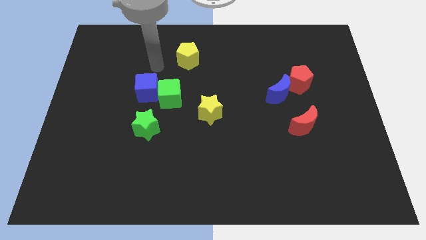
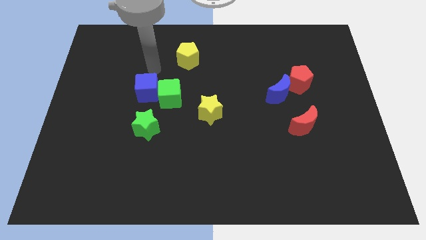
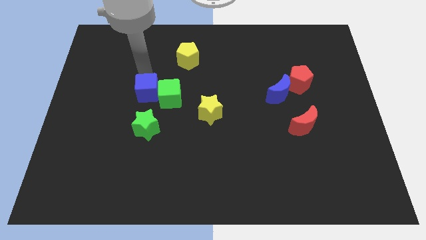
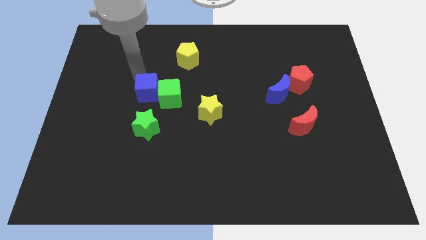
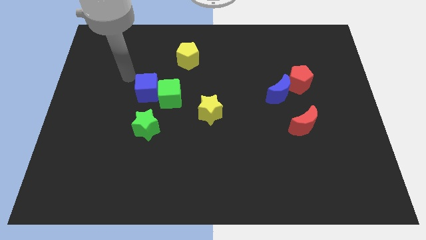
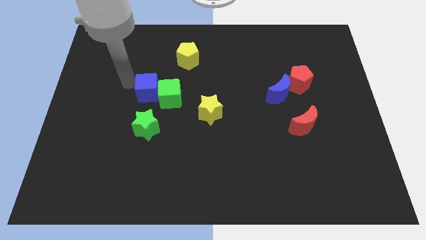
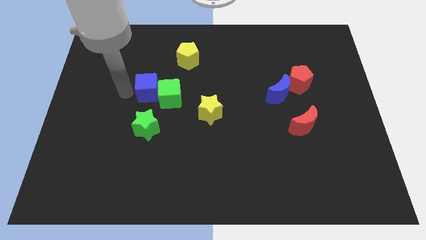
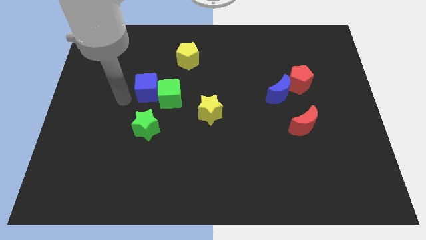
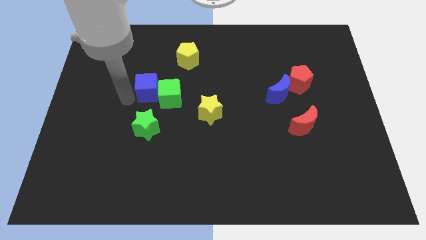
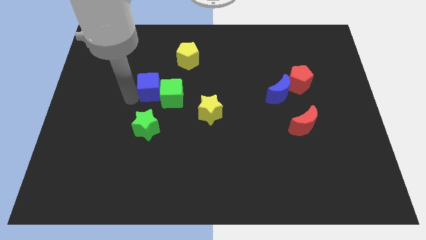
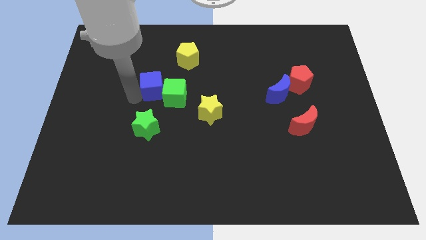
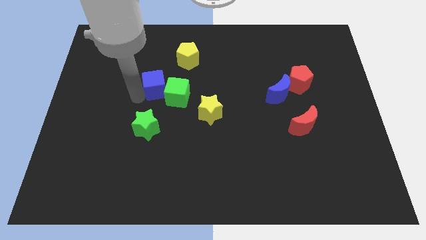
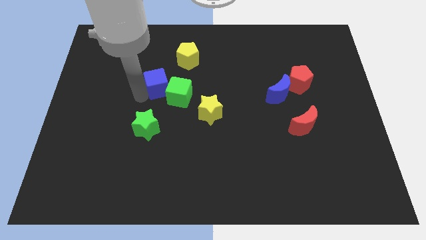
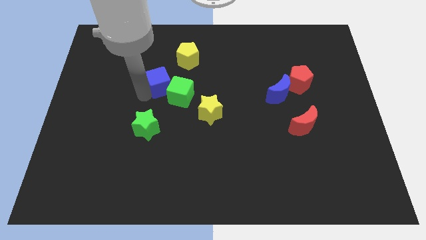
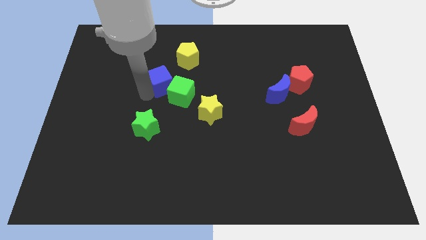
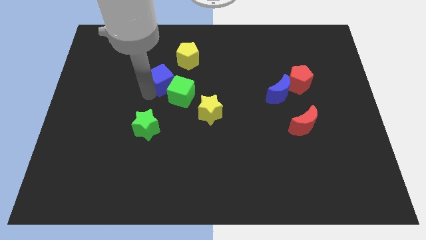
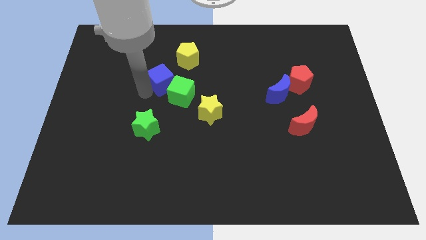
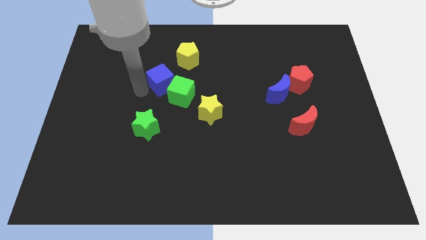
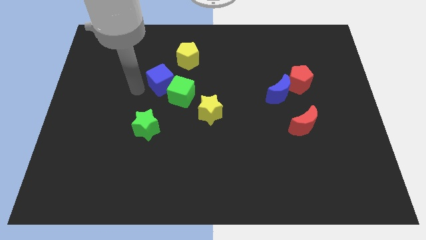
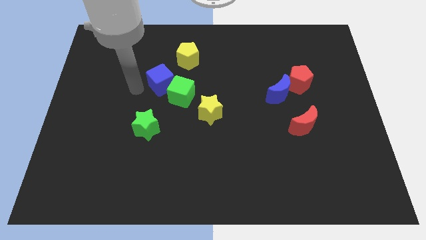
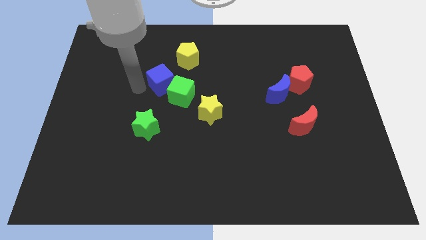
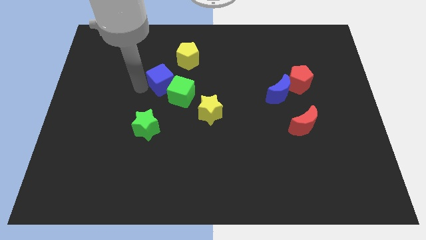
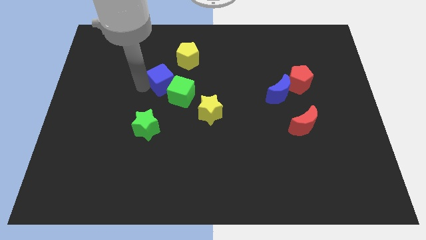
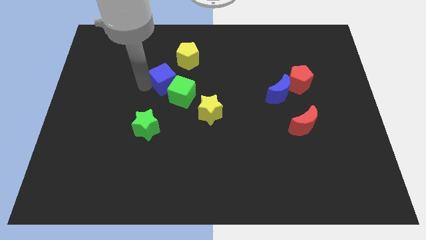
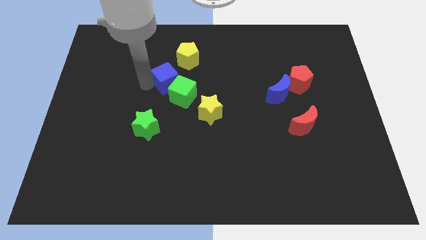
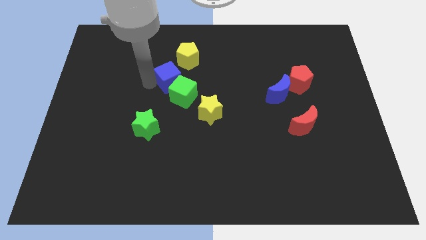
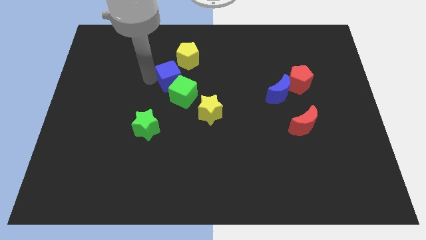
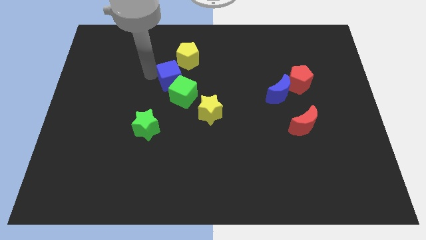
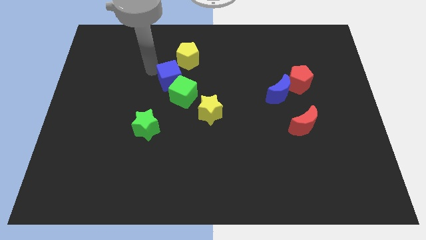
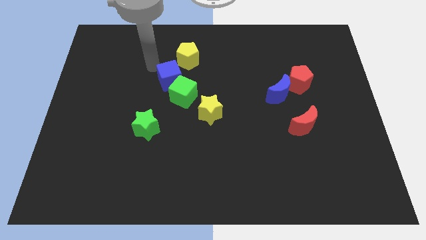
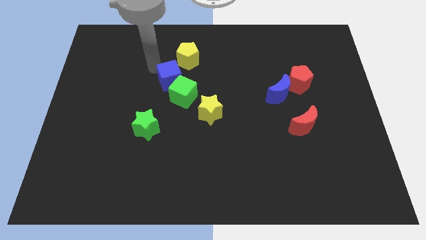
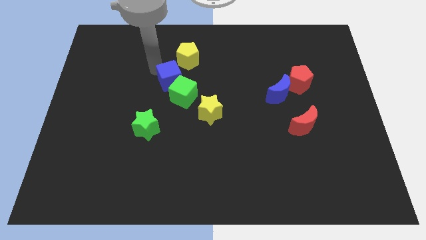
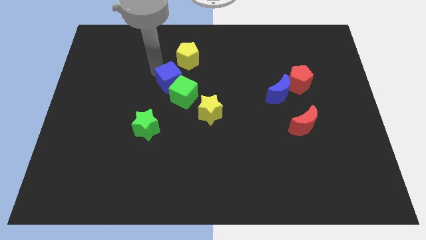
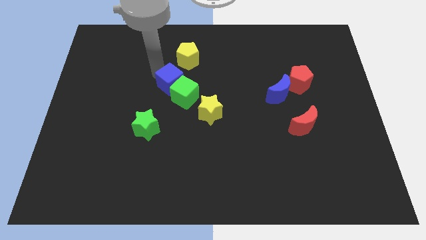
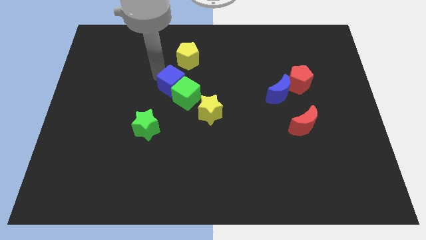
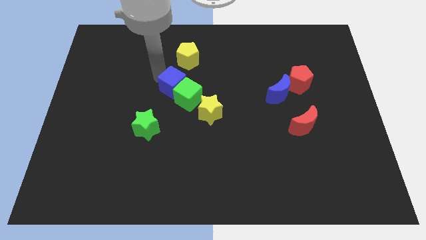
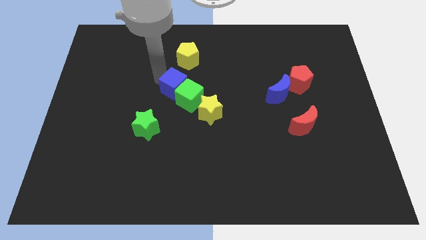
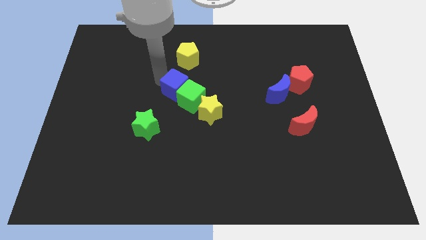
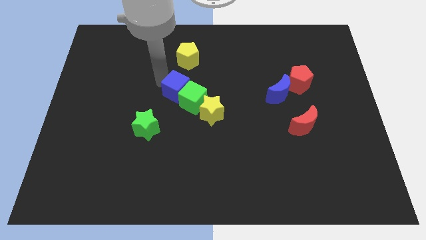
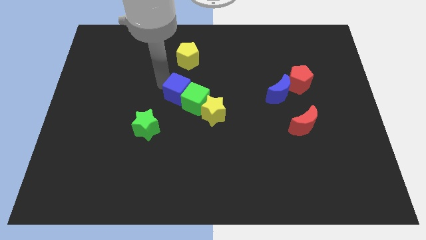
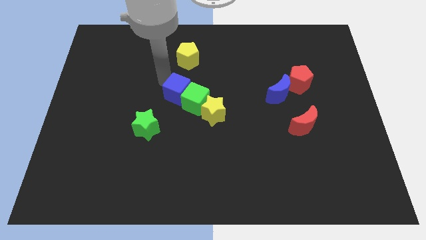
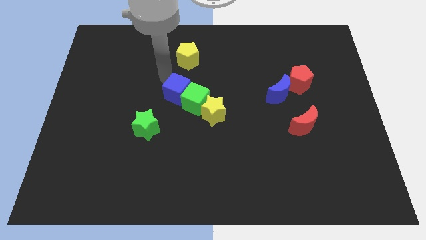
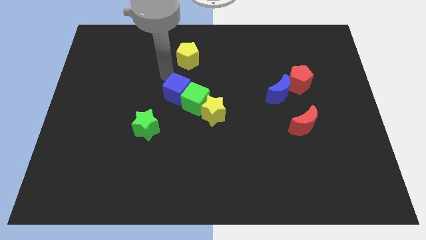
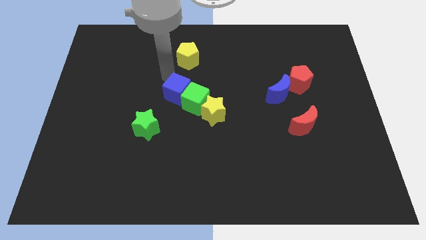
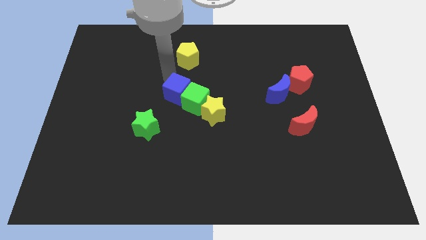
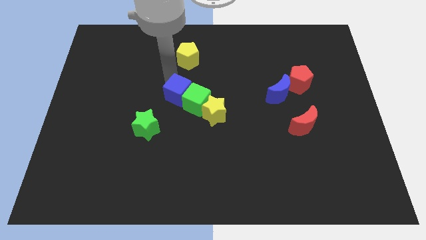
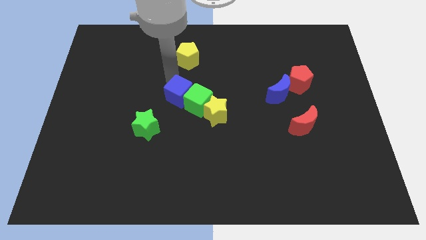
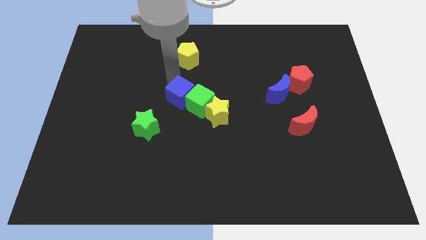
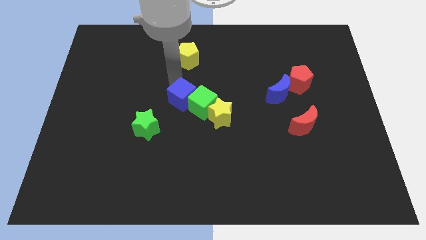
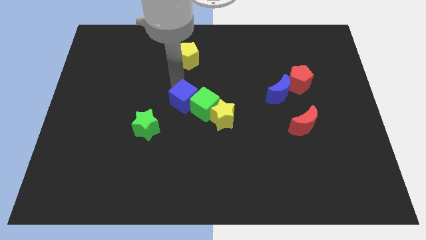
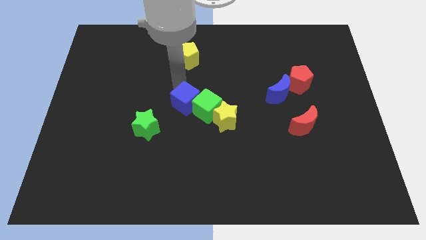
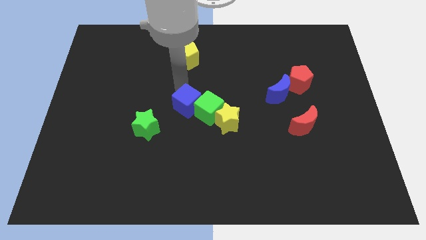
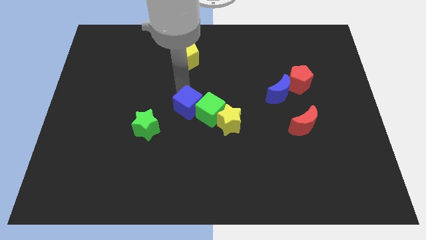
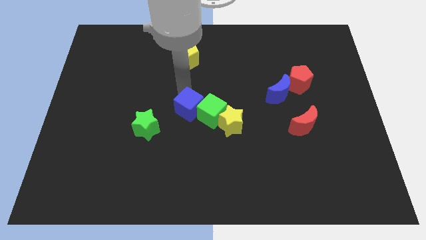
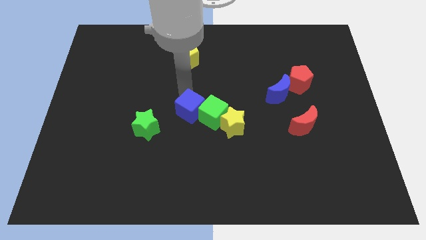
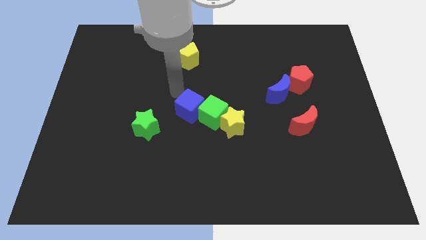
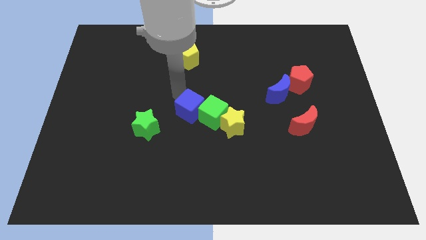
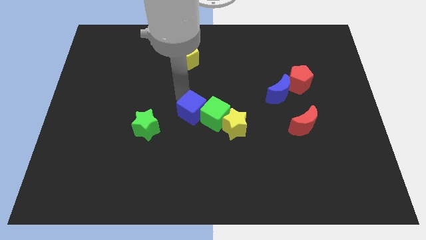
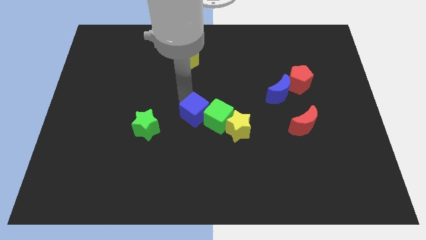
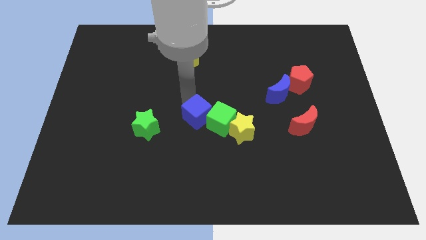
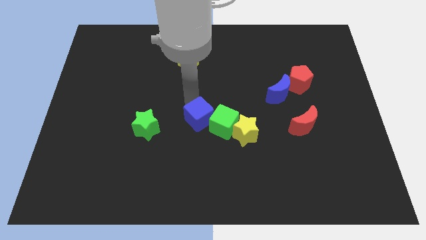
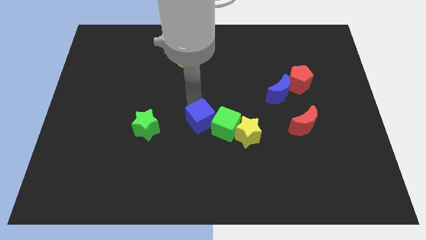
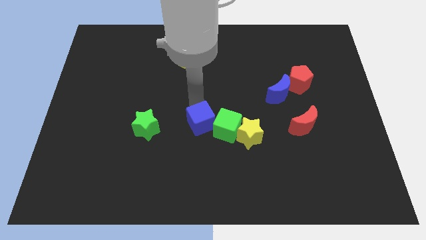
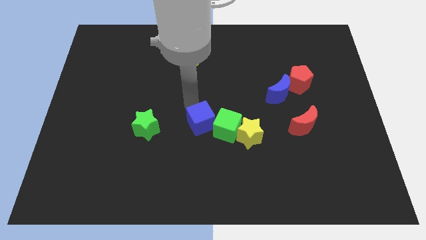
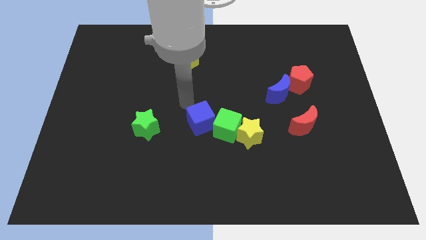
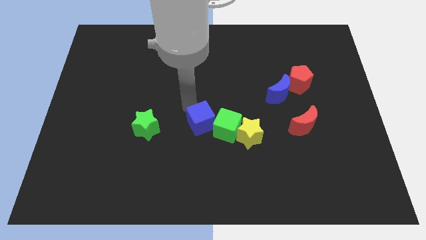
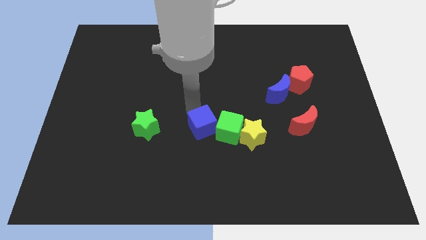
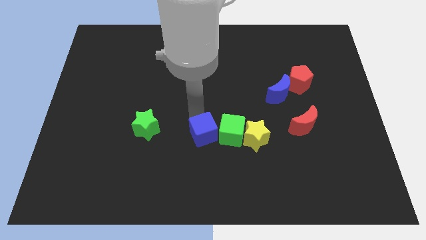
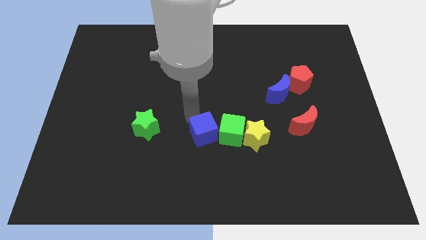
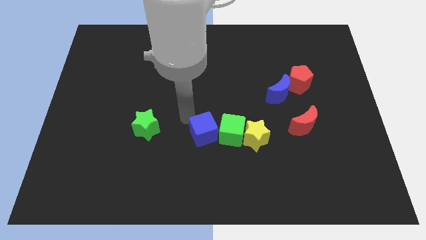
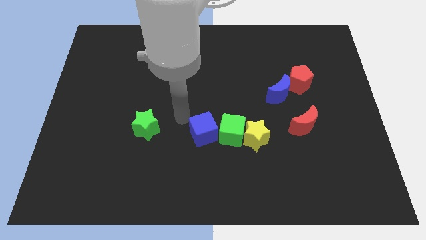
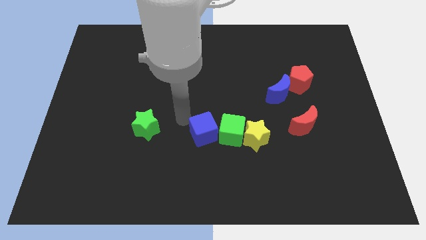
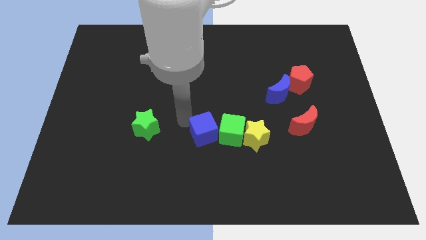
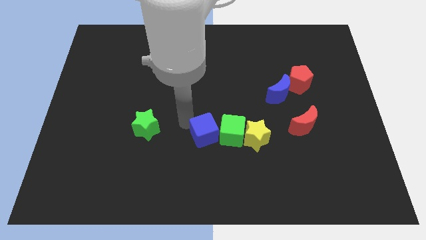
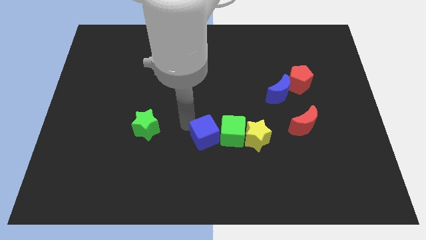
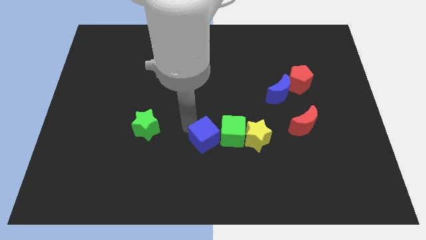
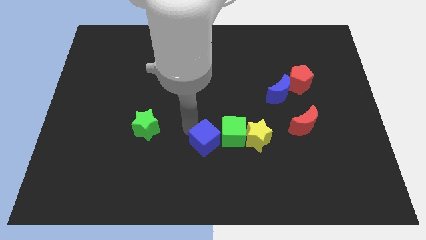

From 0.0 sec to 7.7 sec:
push the blue cube downwards and right diagonally

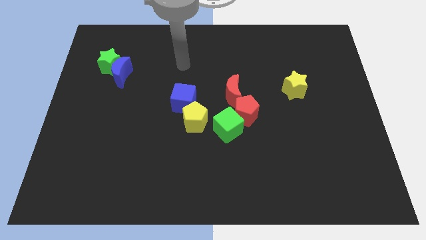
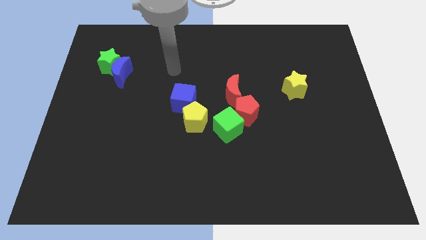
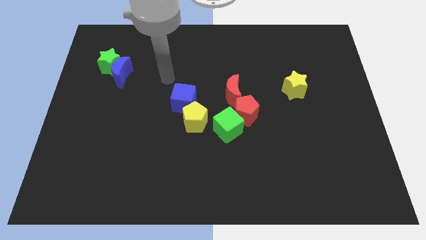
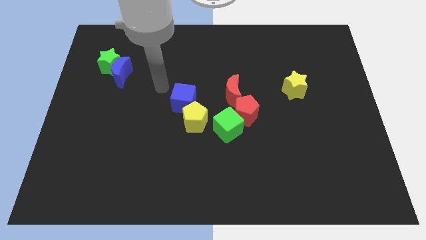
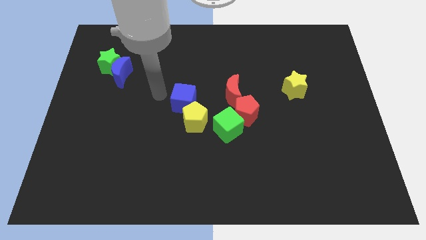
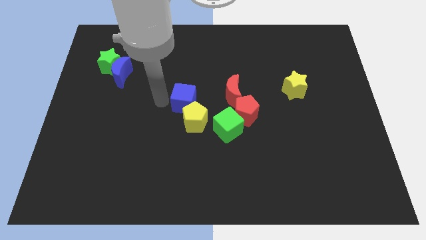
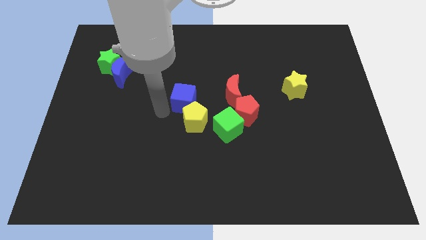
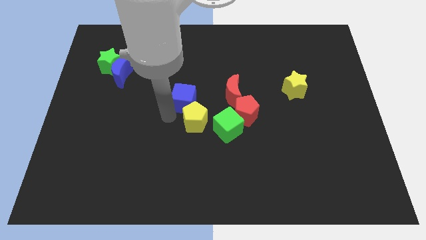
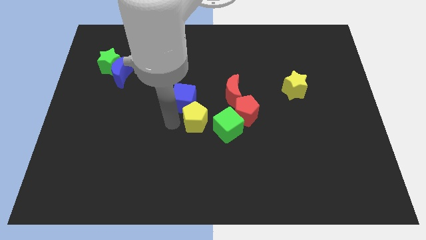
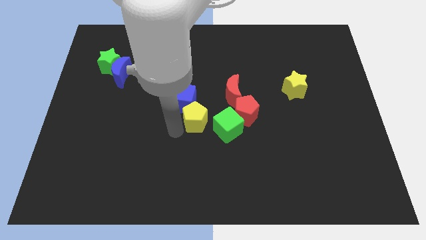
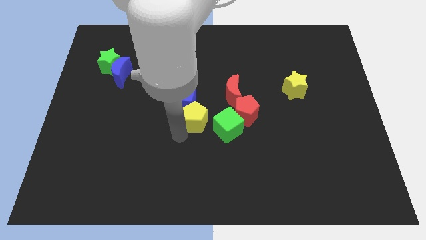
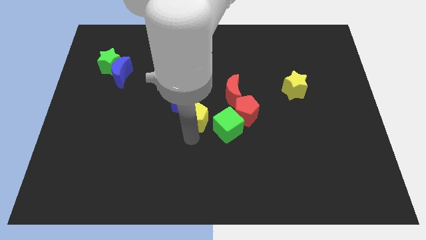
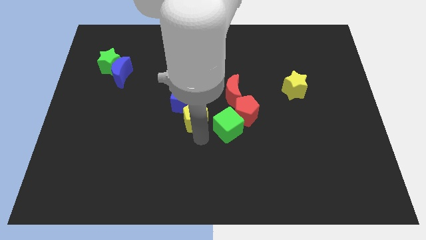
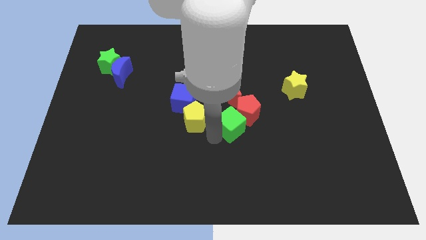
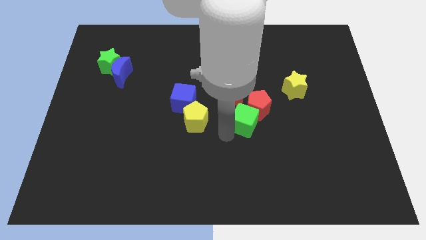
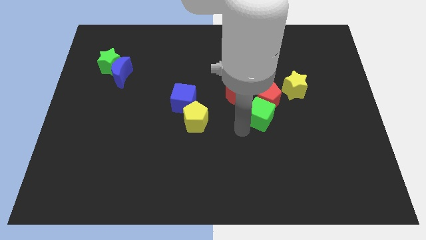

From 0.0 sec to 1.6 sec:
move the red pentagon up and then right a little
